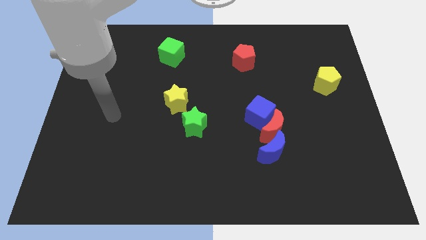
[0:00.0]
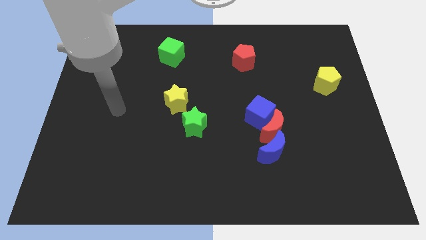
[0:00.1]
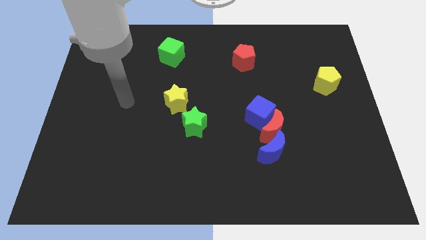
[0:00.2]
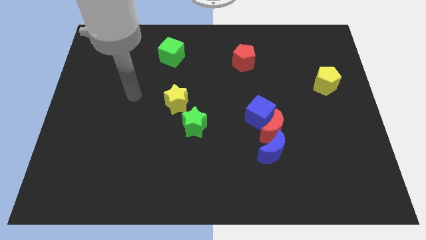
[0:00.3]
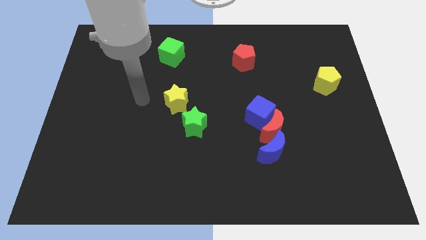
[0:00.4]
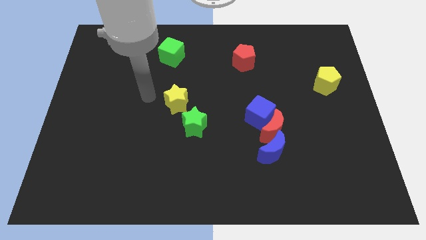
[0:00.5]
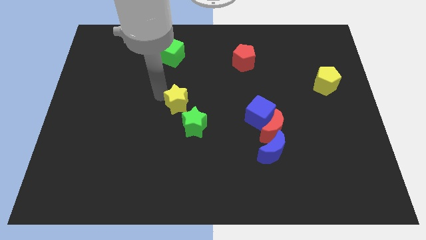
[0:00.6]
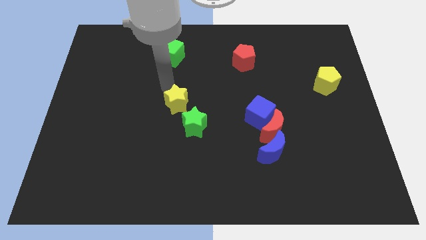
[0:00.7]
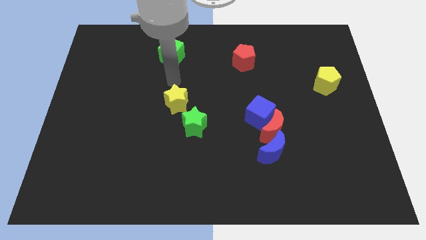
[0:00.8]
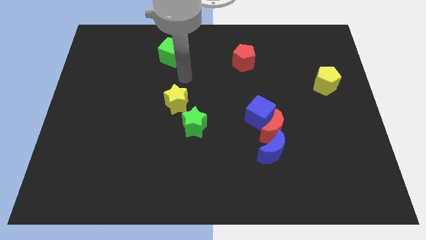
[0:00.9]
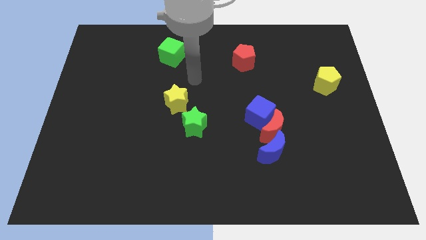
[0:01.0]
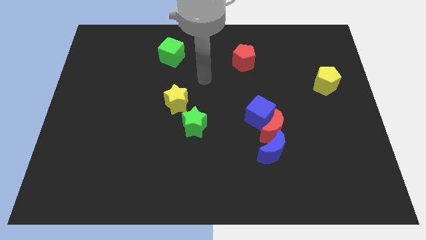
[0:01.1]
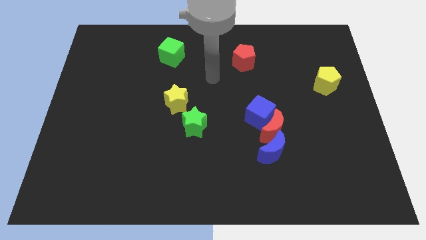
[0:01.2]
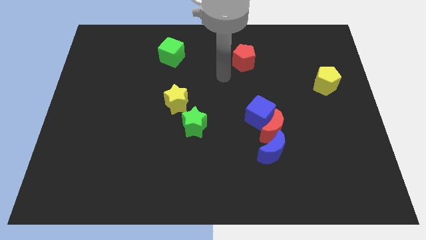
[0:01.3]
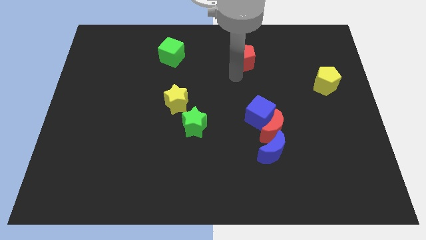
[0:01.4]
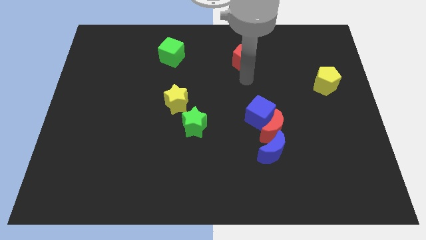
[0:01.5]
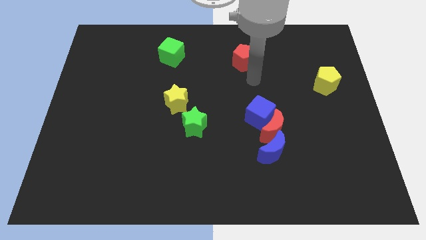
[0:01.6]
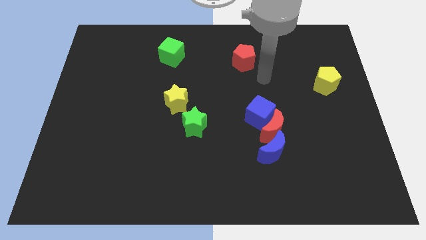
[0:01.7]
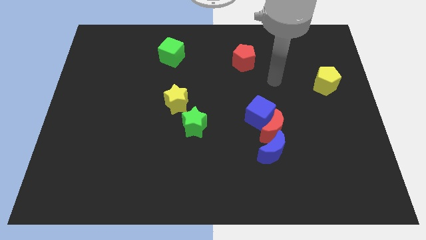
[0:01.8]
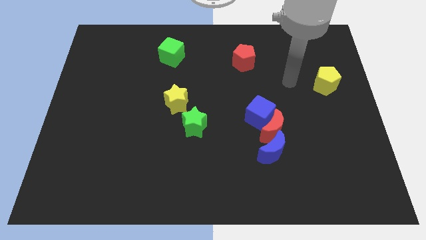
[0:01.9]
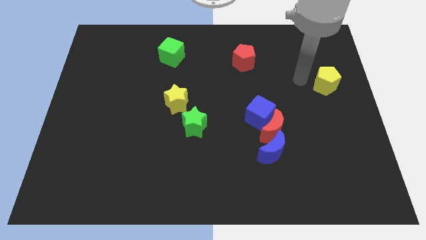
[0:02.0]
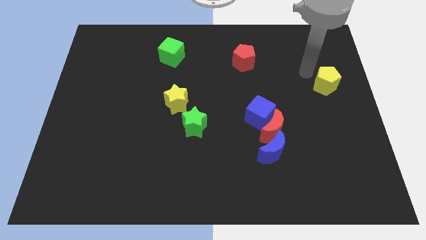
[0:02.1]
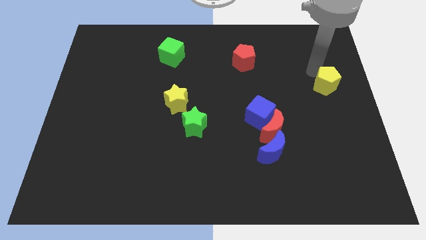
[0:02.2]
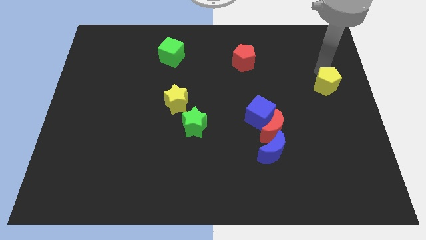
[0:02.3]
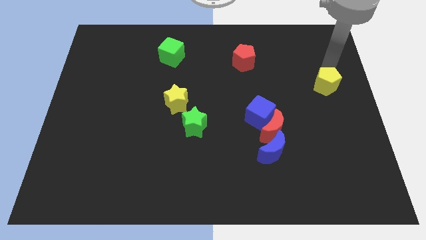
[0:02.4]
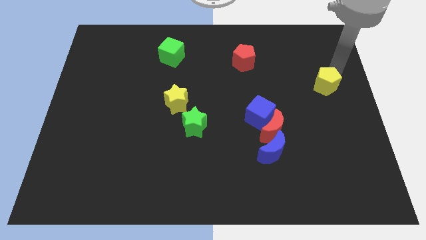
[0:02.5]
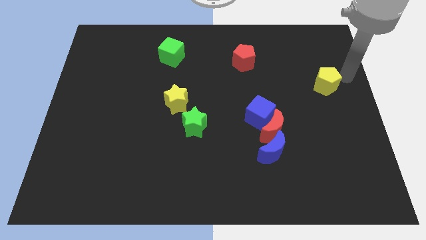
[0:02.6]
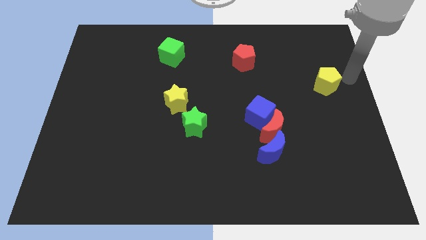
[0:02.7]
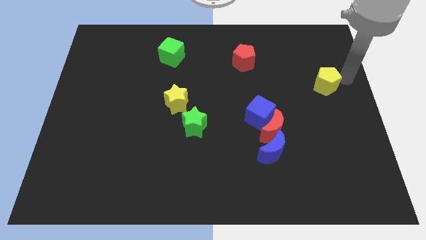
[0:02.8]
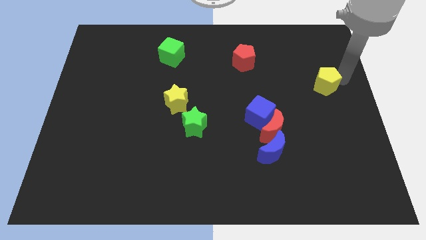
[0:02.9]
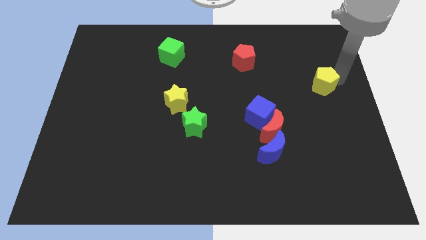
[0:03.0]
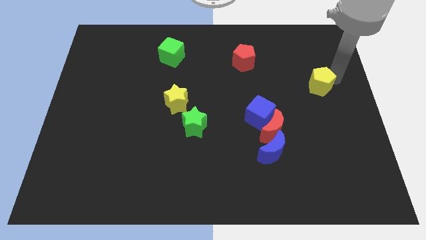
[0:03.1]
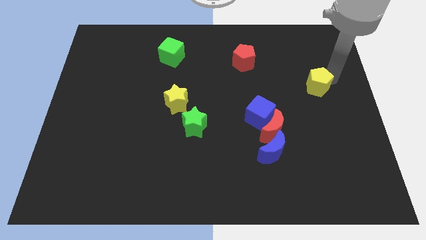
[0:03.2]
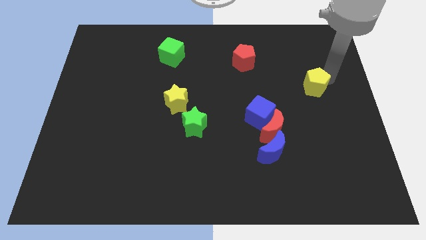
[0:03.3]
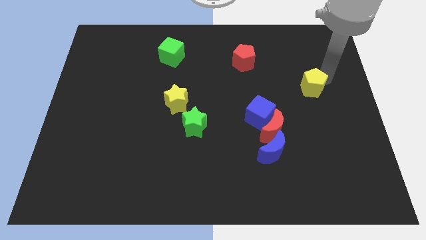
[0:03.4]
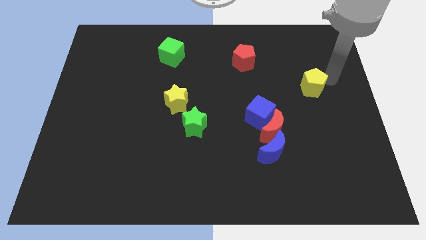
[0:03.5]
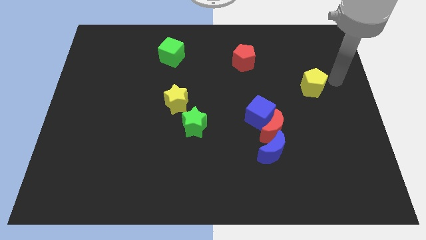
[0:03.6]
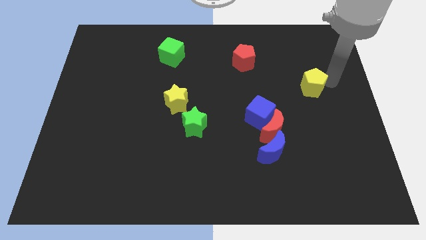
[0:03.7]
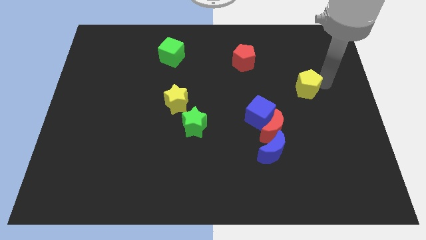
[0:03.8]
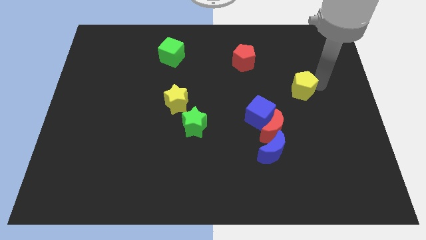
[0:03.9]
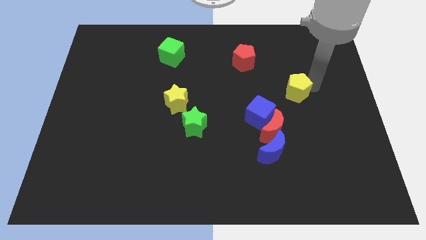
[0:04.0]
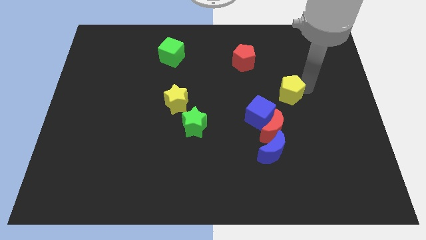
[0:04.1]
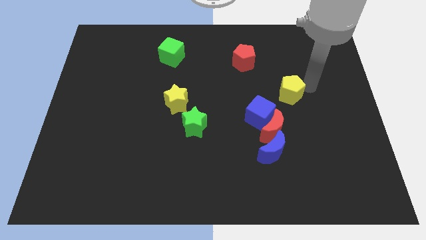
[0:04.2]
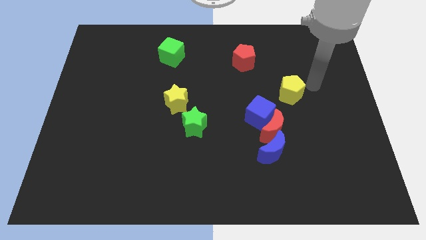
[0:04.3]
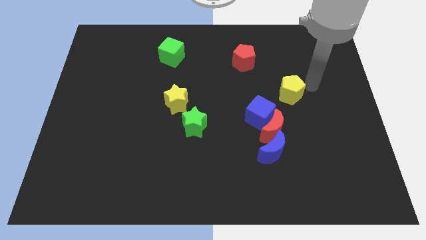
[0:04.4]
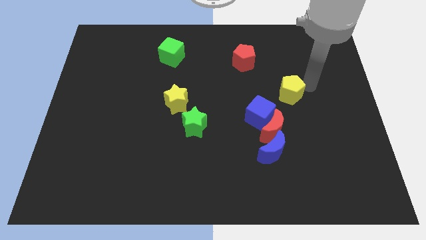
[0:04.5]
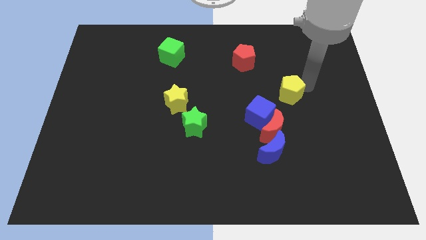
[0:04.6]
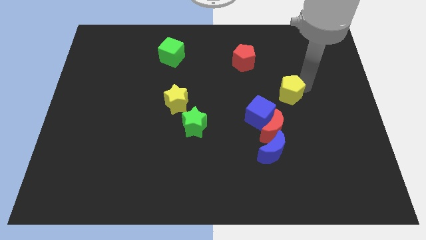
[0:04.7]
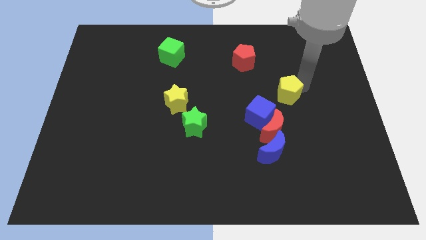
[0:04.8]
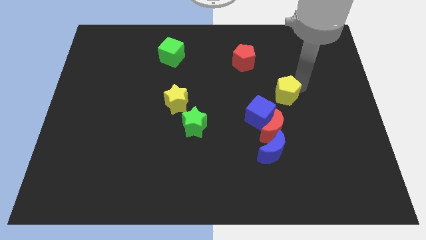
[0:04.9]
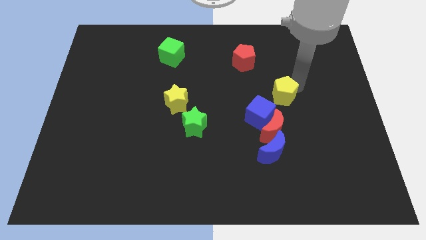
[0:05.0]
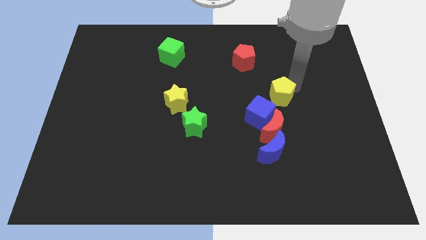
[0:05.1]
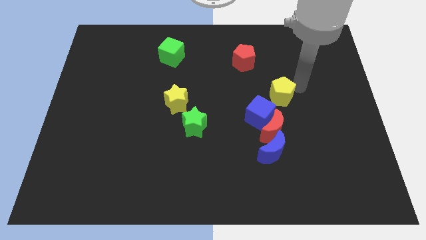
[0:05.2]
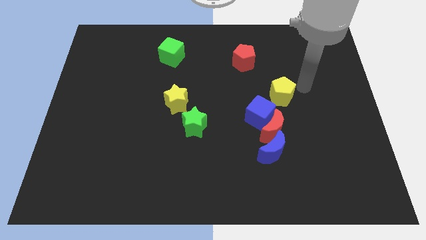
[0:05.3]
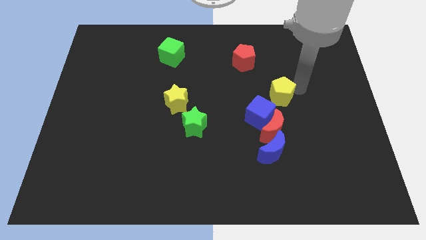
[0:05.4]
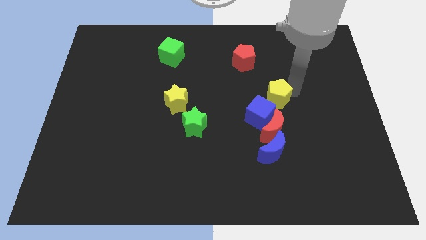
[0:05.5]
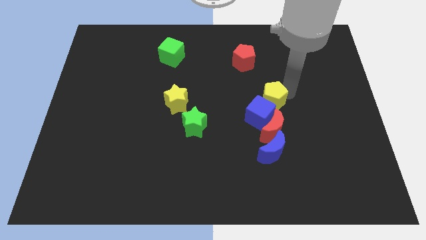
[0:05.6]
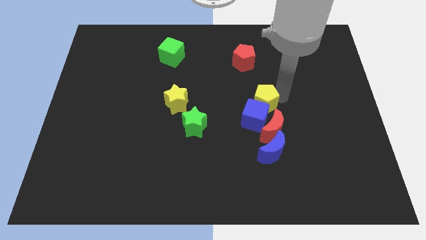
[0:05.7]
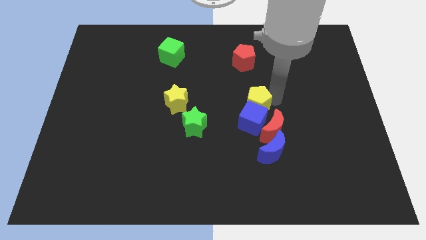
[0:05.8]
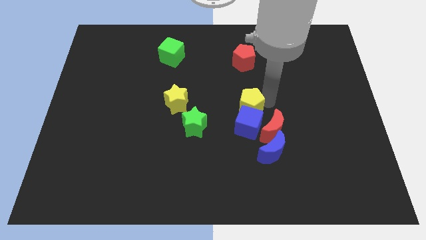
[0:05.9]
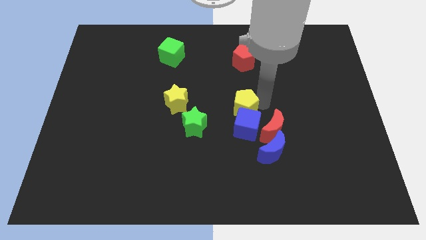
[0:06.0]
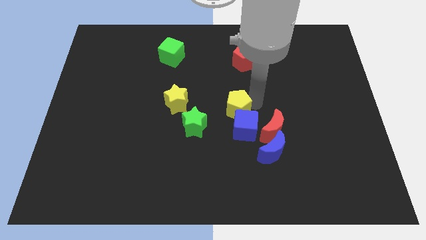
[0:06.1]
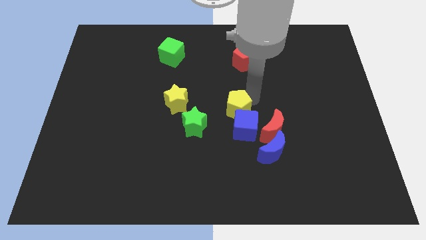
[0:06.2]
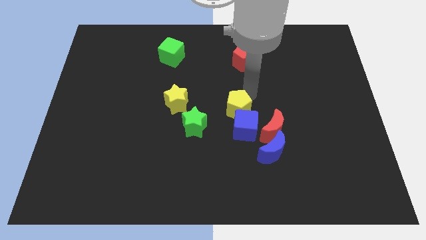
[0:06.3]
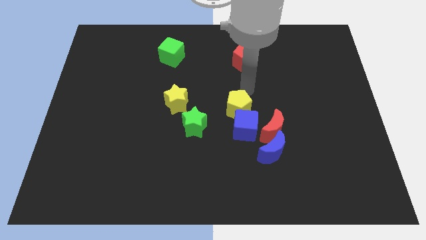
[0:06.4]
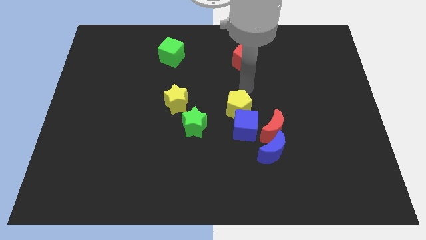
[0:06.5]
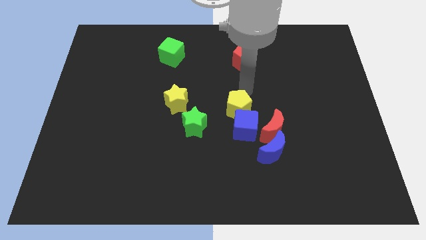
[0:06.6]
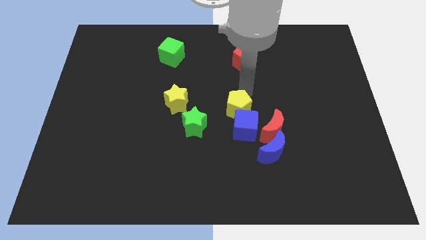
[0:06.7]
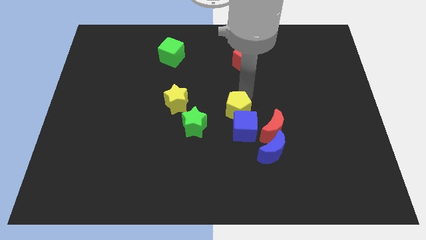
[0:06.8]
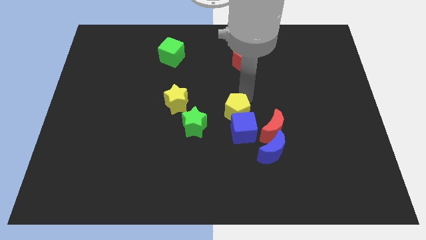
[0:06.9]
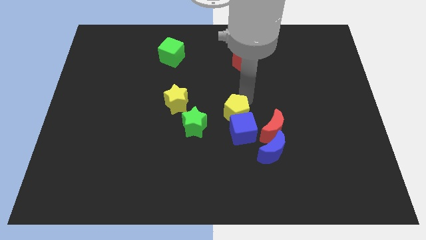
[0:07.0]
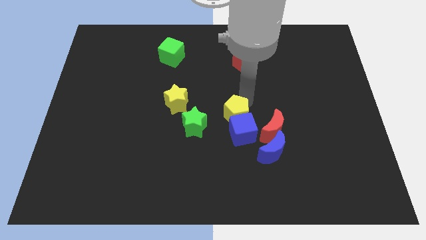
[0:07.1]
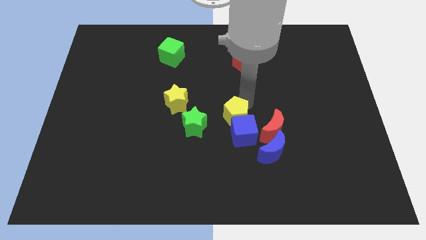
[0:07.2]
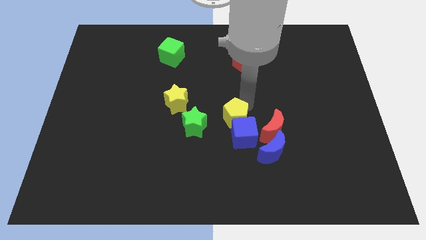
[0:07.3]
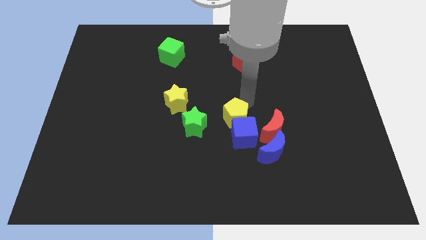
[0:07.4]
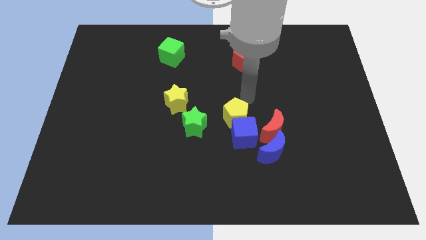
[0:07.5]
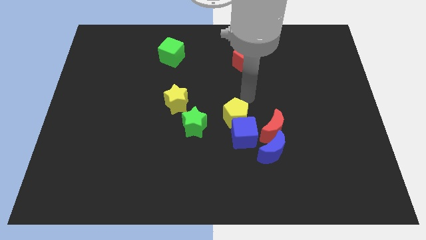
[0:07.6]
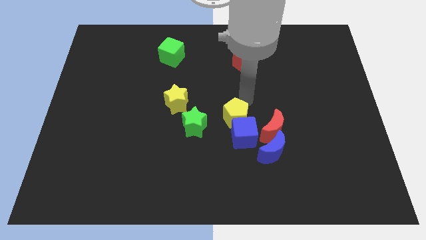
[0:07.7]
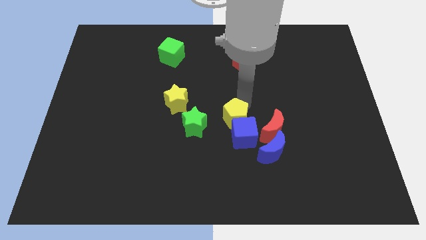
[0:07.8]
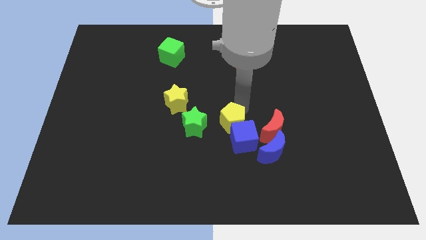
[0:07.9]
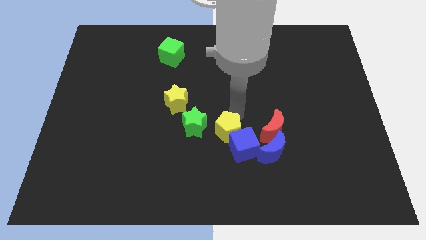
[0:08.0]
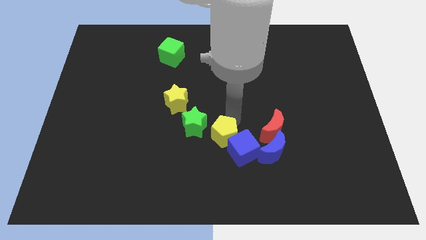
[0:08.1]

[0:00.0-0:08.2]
put the yellow pentagon to the left side of the blue moon
